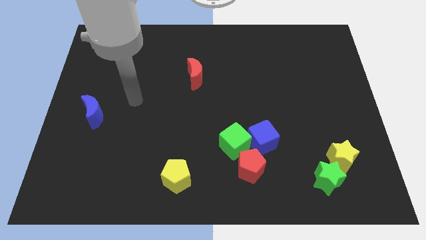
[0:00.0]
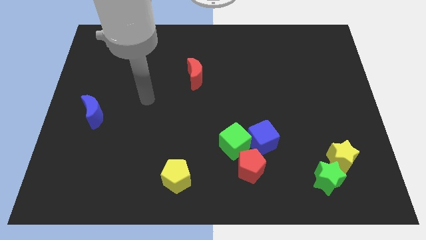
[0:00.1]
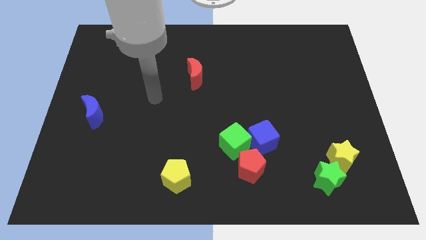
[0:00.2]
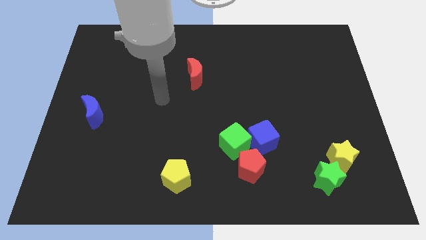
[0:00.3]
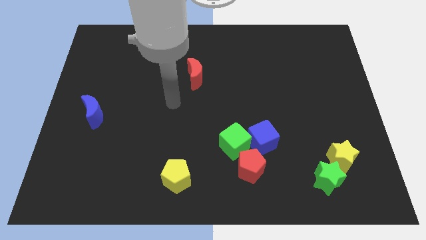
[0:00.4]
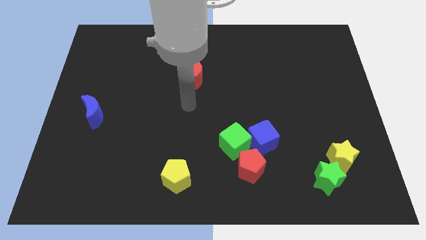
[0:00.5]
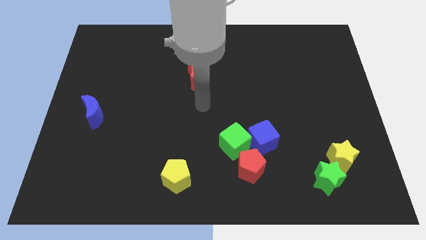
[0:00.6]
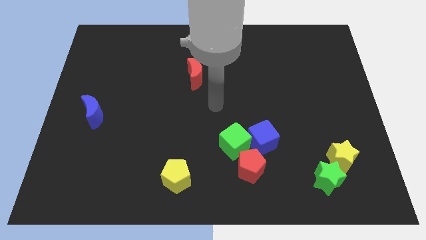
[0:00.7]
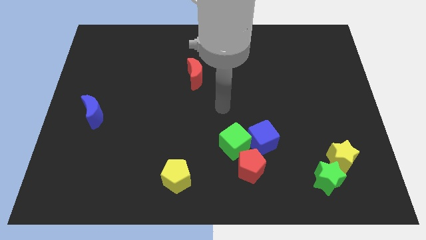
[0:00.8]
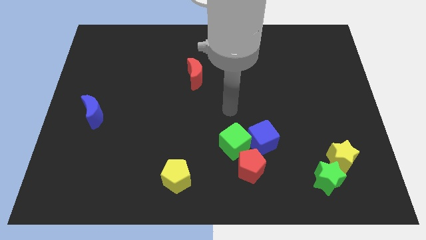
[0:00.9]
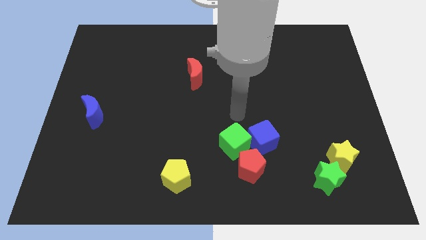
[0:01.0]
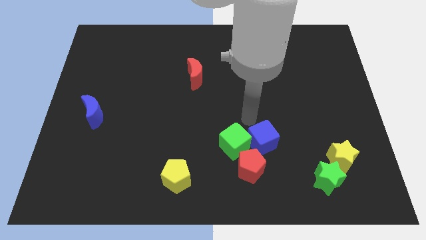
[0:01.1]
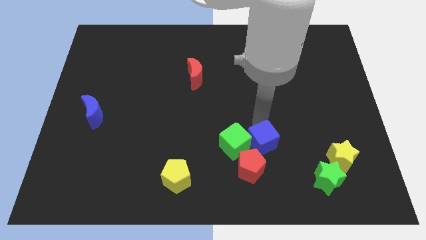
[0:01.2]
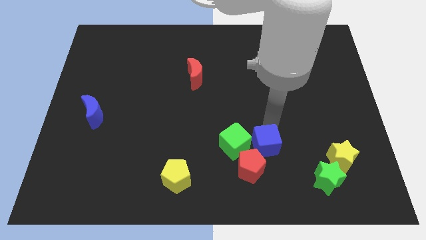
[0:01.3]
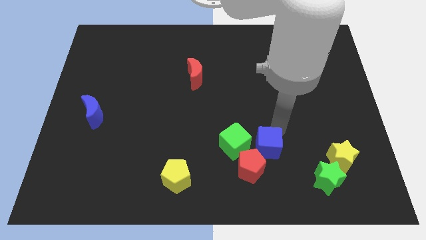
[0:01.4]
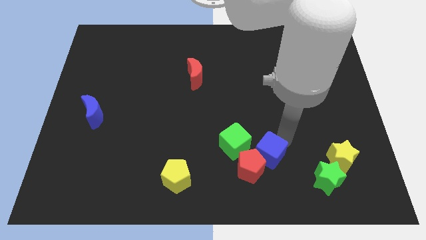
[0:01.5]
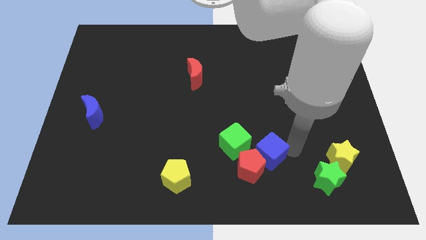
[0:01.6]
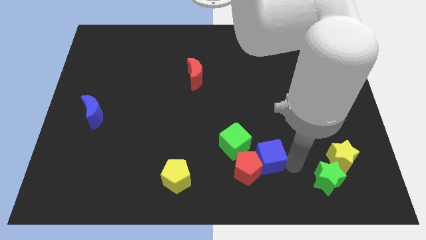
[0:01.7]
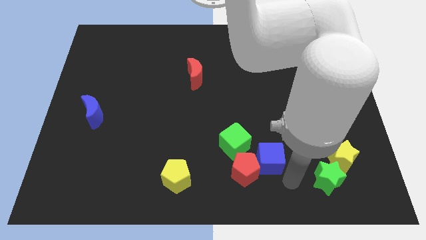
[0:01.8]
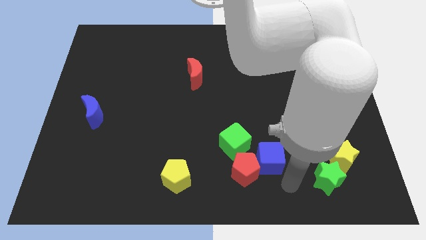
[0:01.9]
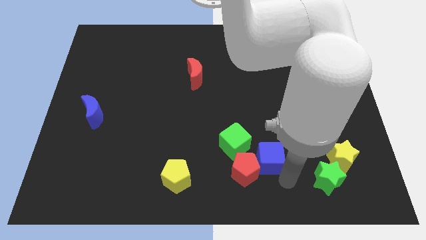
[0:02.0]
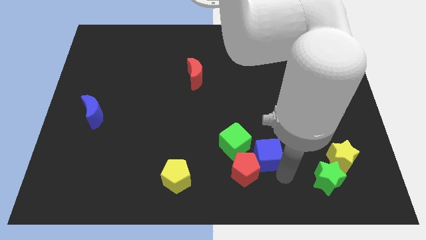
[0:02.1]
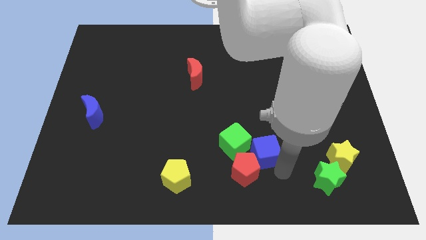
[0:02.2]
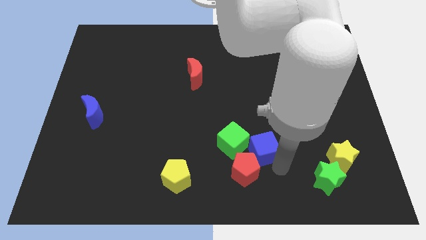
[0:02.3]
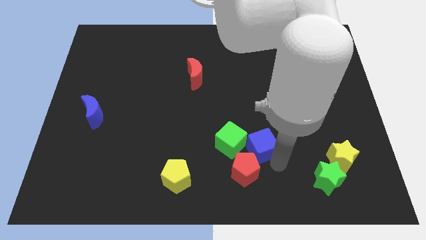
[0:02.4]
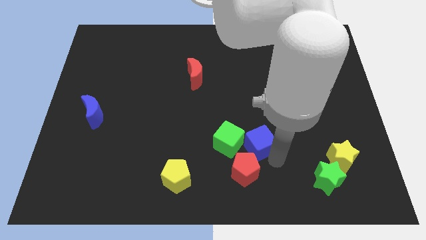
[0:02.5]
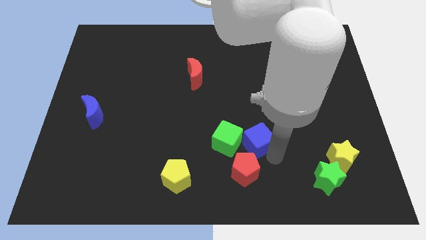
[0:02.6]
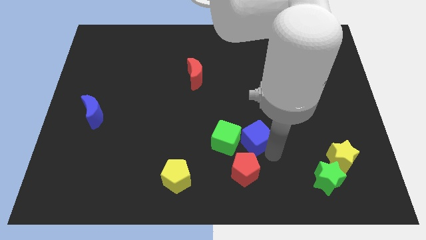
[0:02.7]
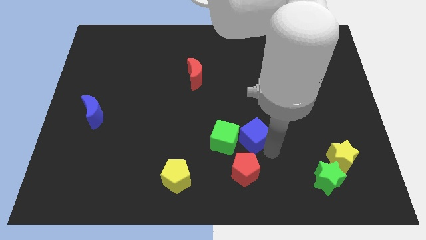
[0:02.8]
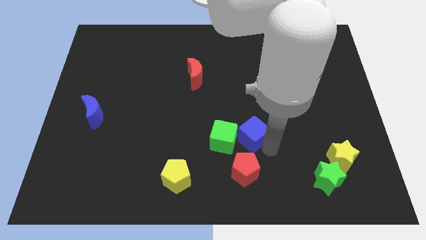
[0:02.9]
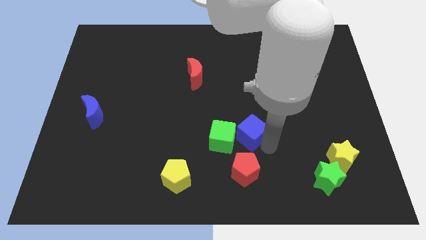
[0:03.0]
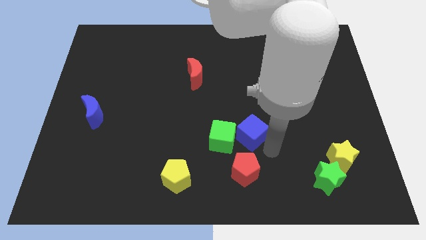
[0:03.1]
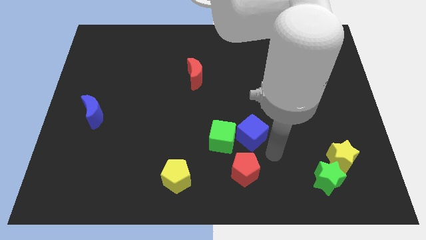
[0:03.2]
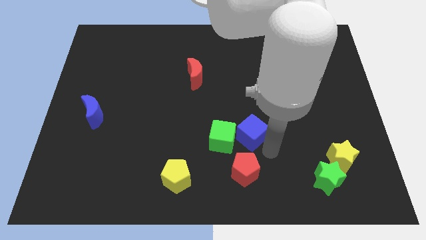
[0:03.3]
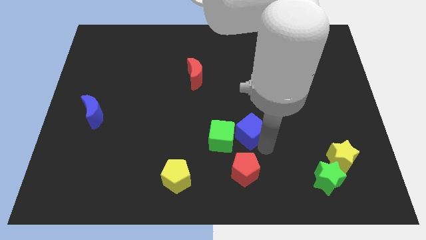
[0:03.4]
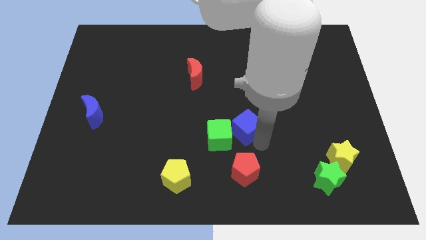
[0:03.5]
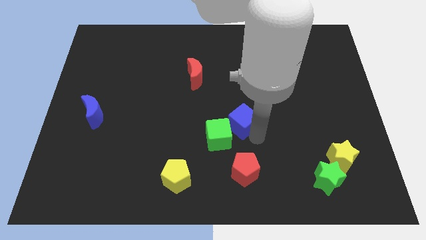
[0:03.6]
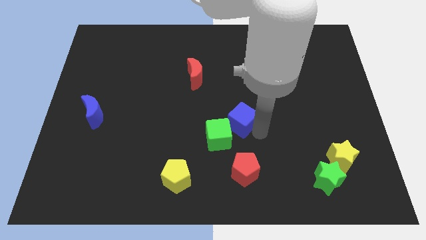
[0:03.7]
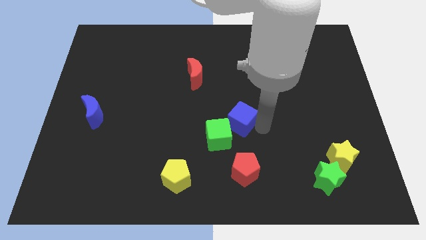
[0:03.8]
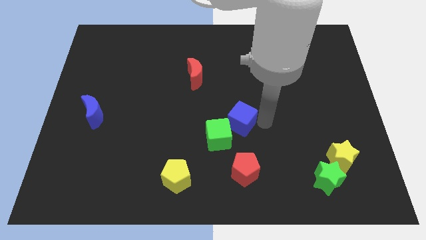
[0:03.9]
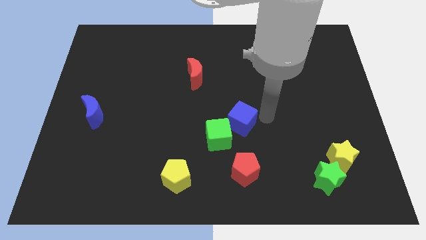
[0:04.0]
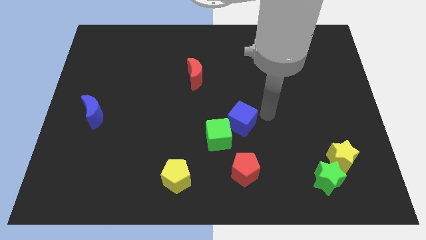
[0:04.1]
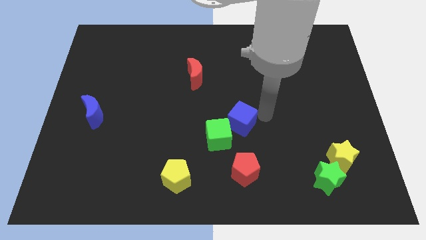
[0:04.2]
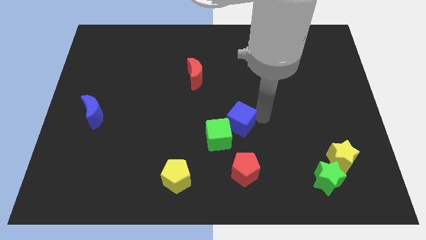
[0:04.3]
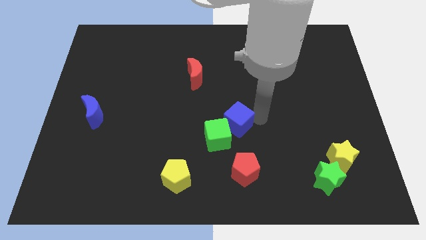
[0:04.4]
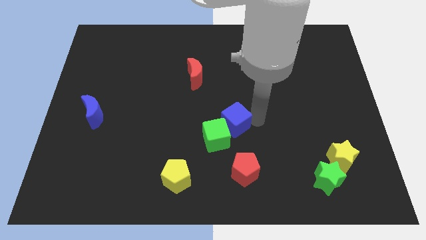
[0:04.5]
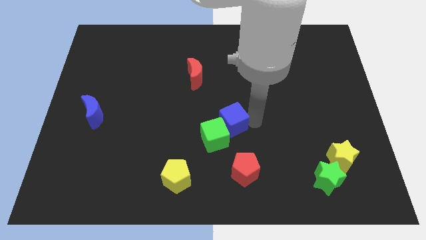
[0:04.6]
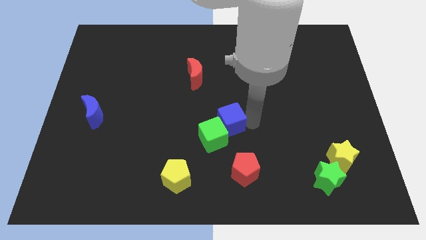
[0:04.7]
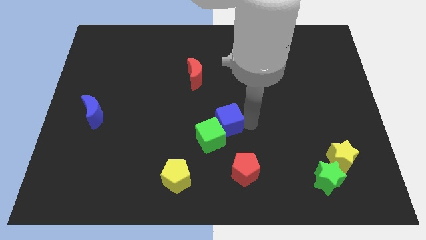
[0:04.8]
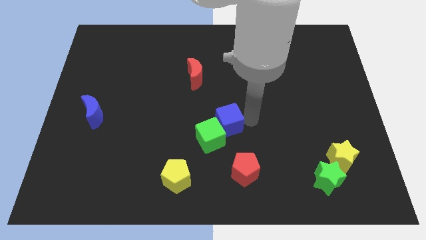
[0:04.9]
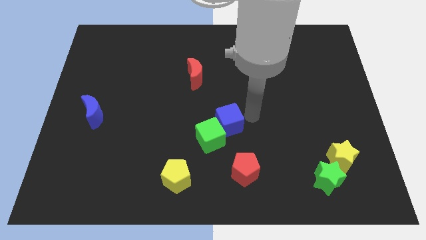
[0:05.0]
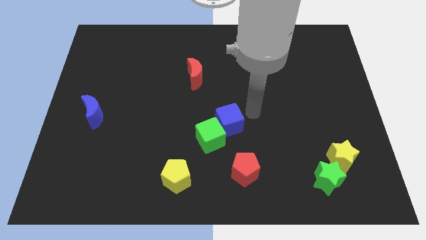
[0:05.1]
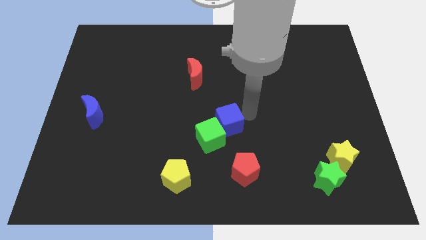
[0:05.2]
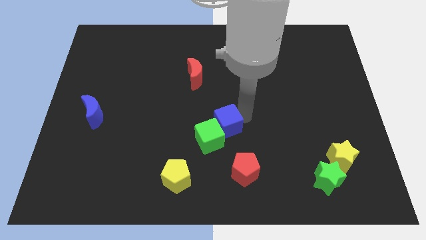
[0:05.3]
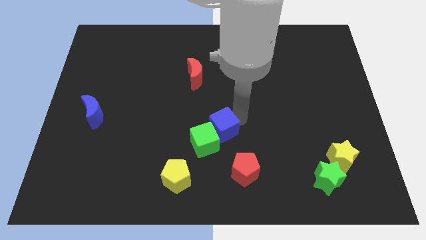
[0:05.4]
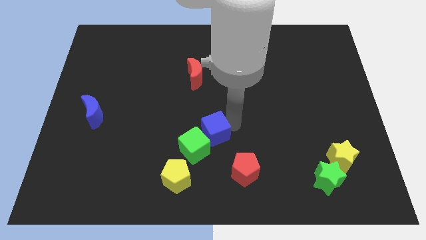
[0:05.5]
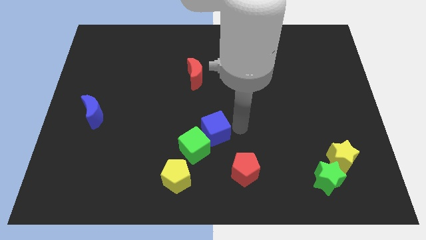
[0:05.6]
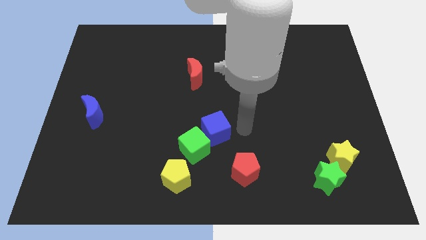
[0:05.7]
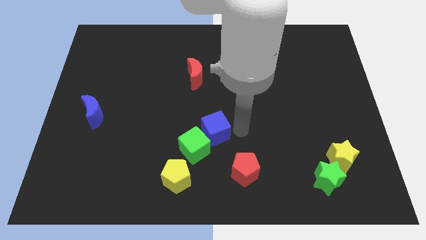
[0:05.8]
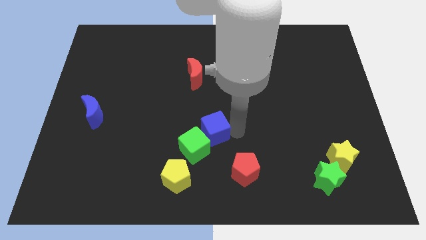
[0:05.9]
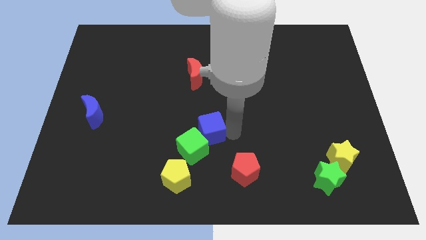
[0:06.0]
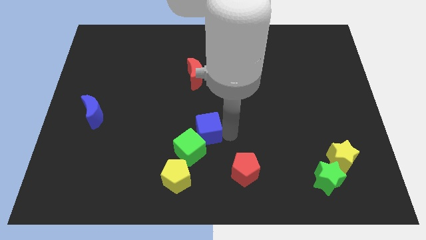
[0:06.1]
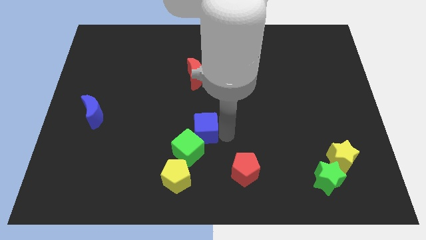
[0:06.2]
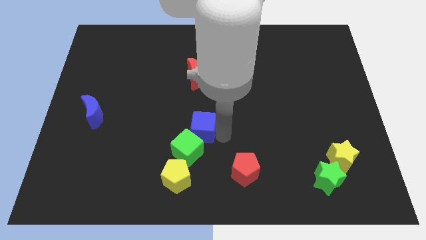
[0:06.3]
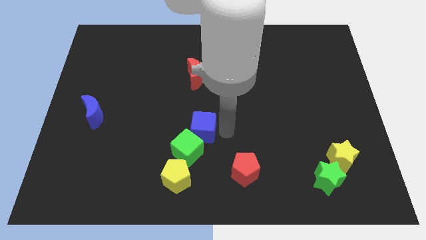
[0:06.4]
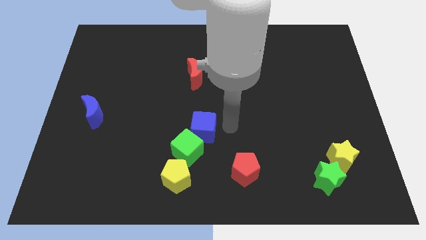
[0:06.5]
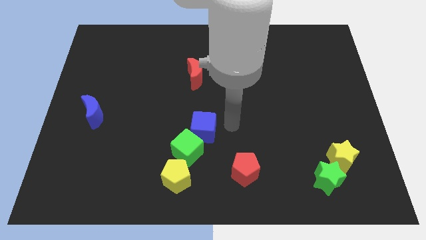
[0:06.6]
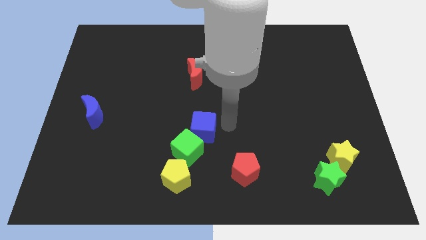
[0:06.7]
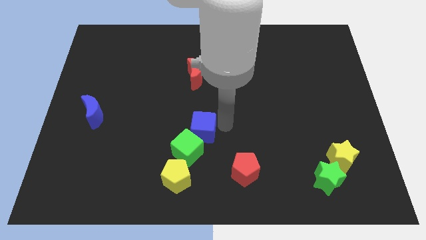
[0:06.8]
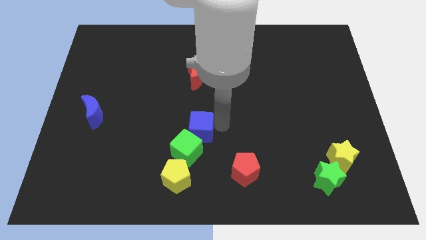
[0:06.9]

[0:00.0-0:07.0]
put the blue cube to the top of the yellow pentagon

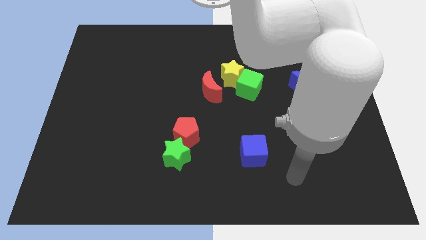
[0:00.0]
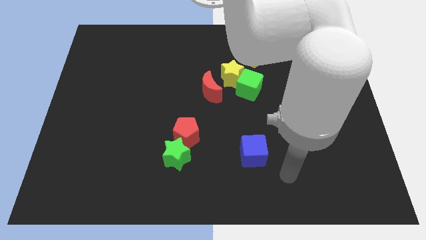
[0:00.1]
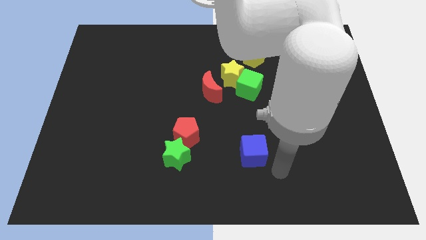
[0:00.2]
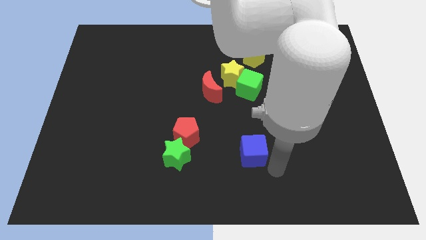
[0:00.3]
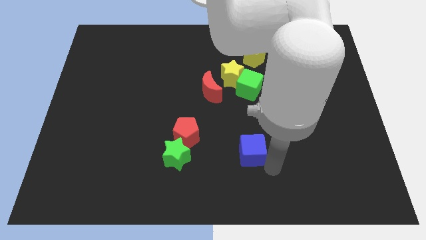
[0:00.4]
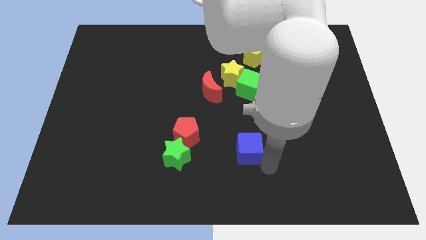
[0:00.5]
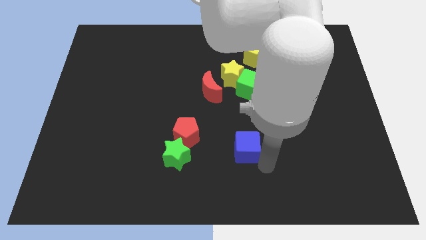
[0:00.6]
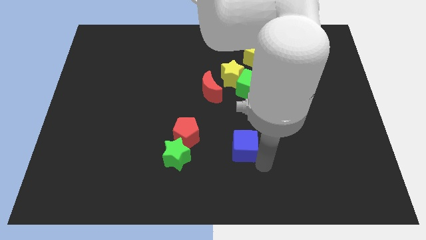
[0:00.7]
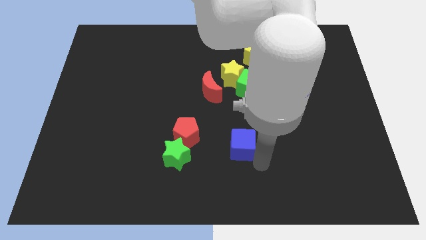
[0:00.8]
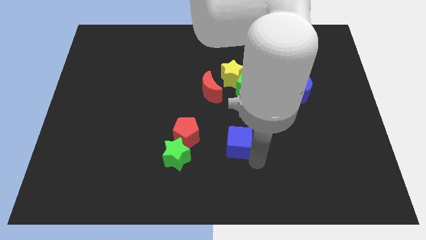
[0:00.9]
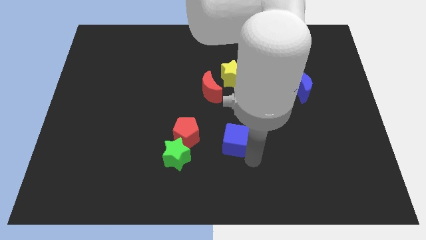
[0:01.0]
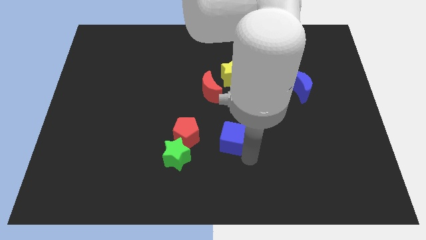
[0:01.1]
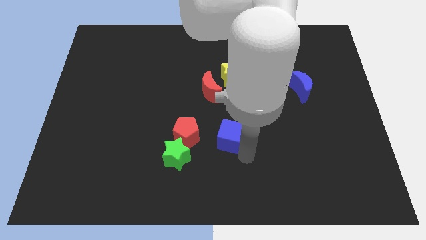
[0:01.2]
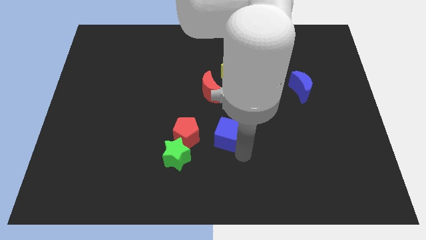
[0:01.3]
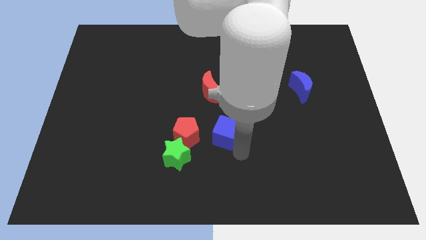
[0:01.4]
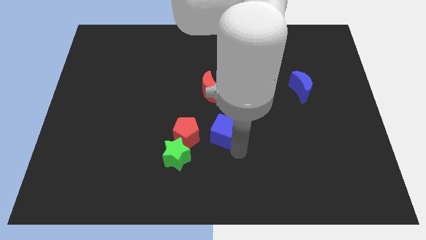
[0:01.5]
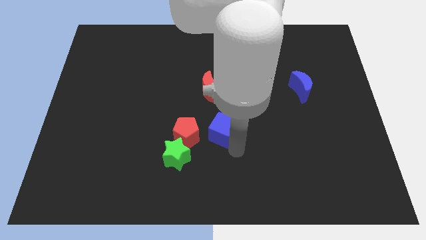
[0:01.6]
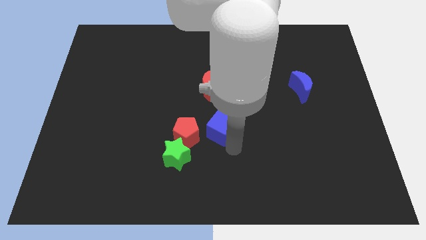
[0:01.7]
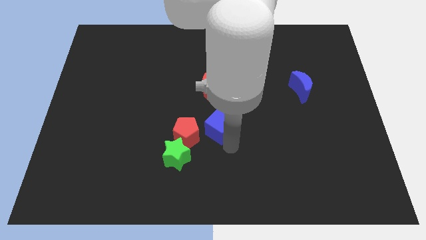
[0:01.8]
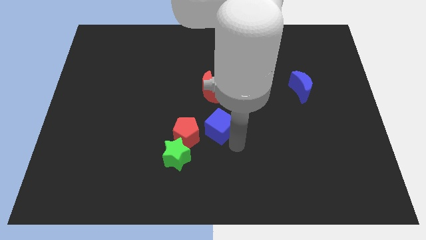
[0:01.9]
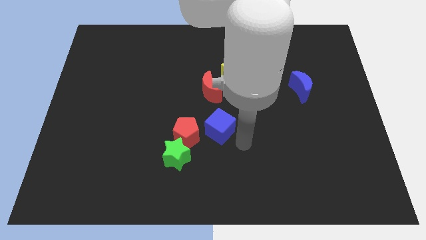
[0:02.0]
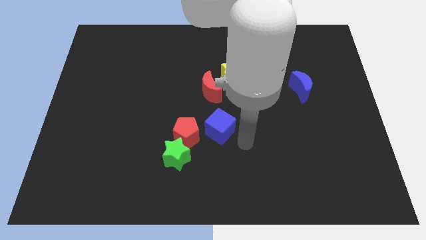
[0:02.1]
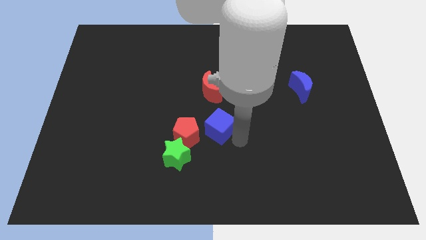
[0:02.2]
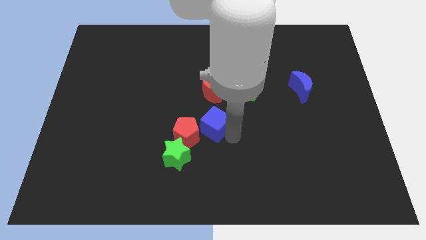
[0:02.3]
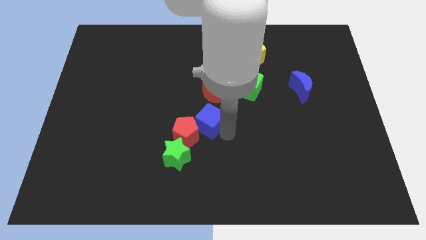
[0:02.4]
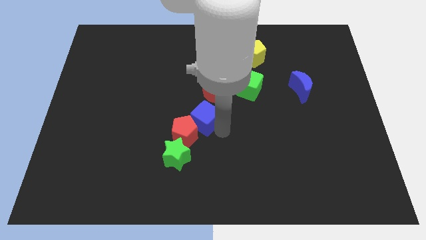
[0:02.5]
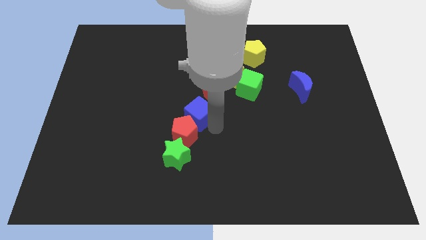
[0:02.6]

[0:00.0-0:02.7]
put the blue cube to the bottom left side of the red moon
